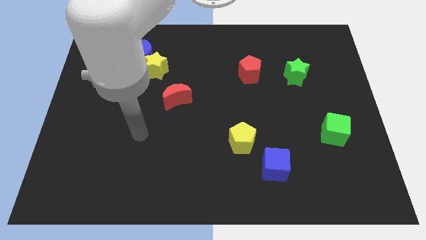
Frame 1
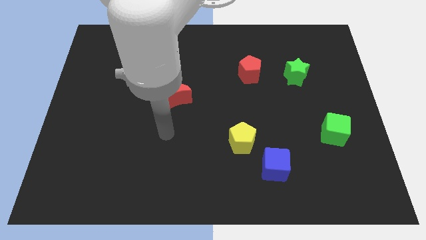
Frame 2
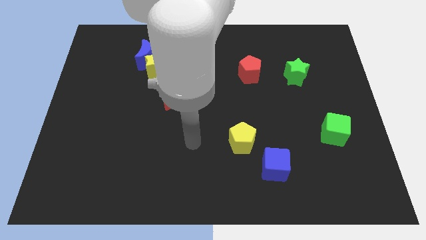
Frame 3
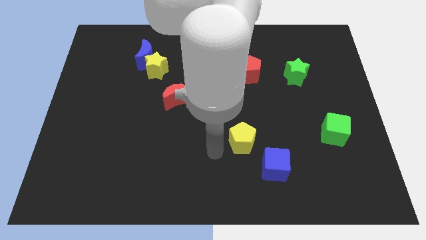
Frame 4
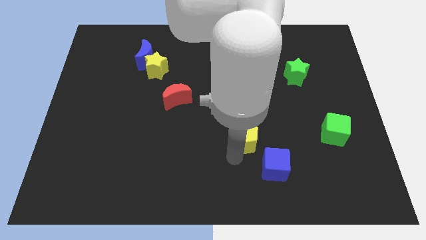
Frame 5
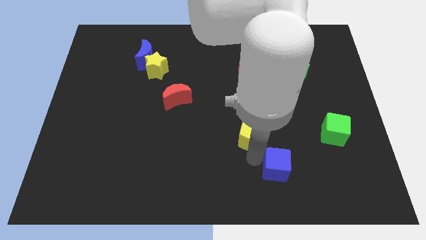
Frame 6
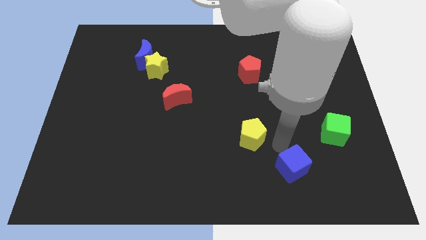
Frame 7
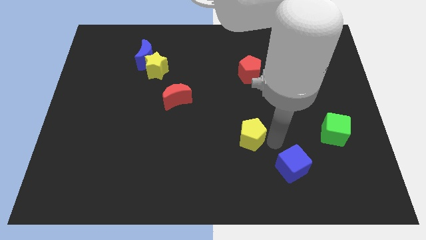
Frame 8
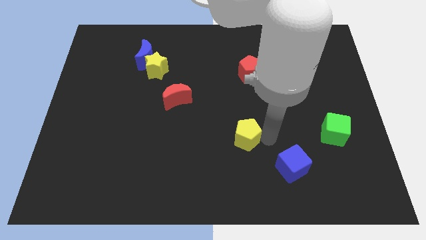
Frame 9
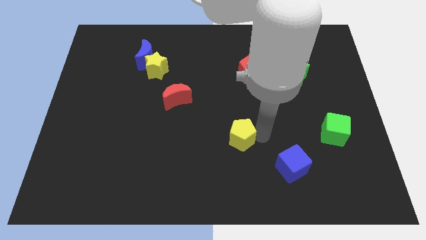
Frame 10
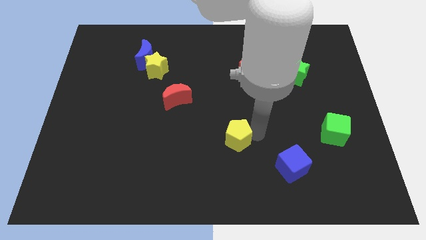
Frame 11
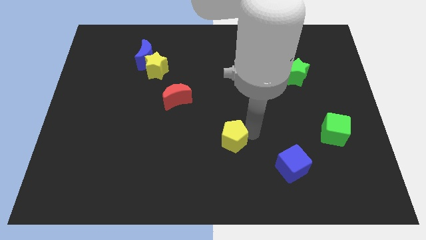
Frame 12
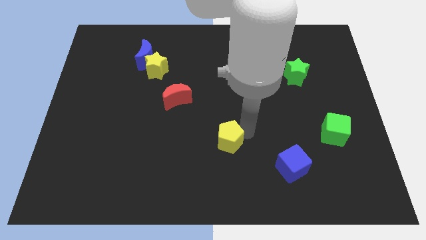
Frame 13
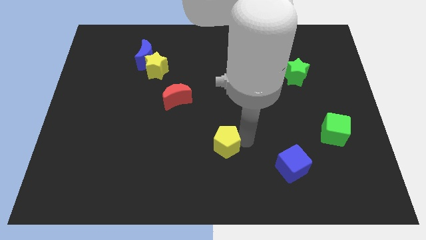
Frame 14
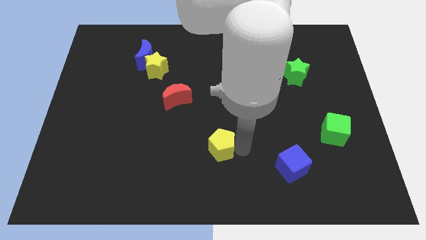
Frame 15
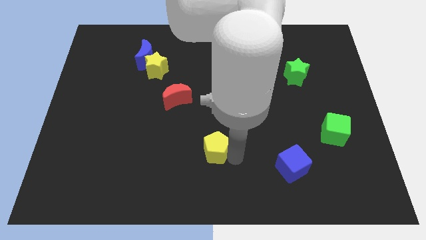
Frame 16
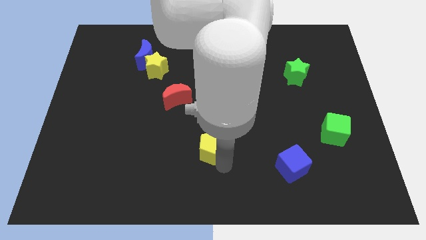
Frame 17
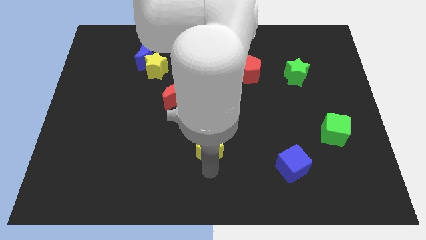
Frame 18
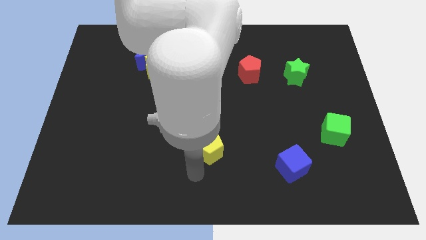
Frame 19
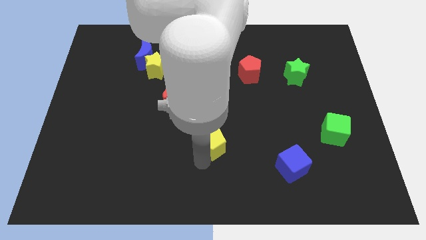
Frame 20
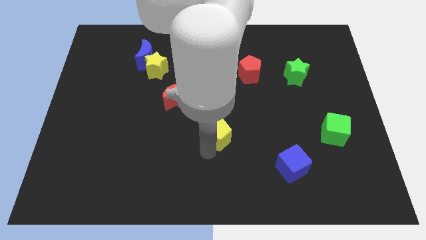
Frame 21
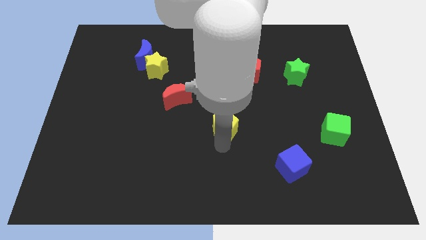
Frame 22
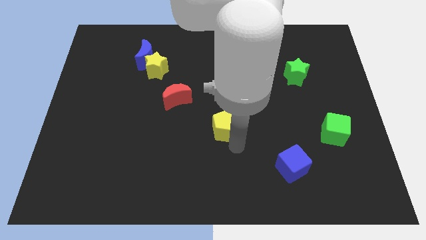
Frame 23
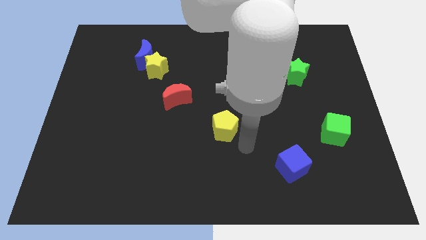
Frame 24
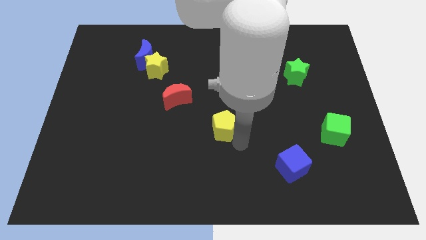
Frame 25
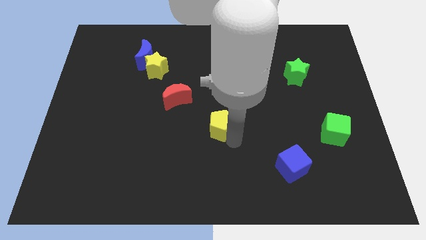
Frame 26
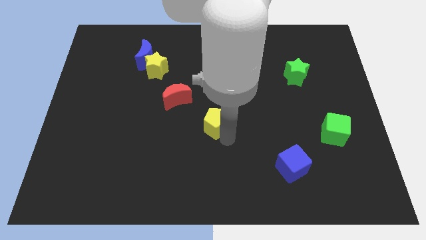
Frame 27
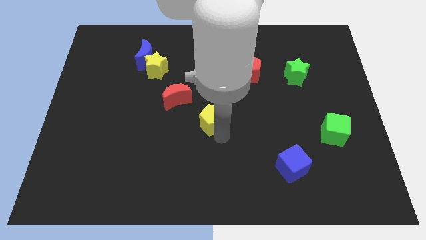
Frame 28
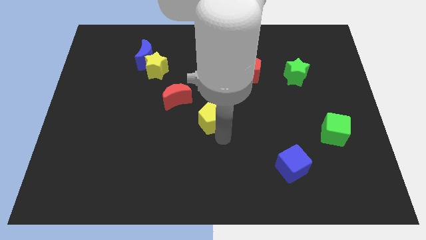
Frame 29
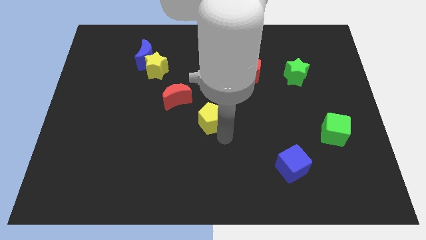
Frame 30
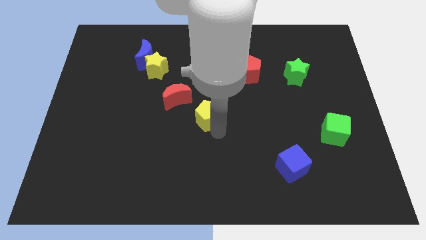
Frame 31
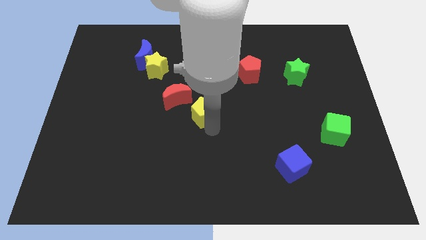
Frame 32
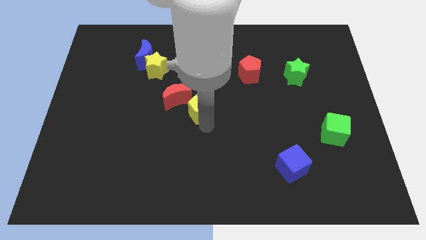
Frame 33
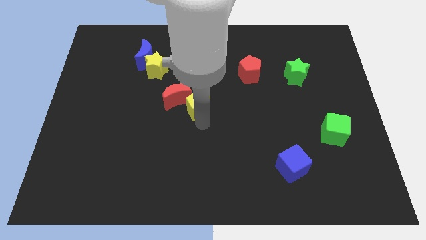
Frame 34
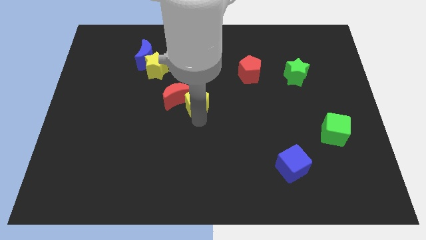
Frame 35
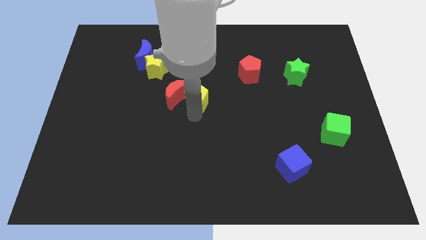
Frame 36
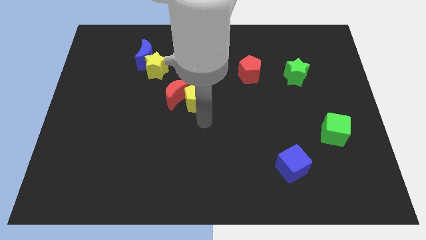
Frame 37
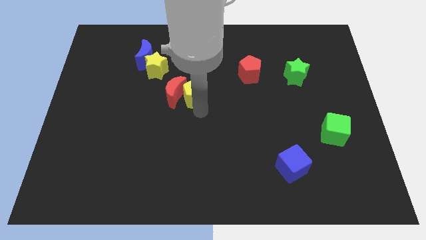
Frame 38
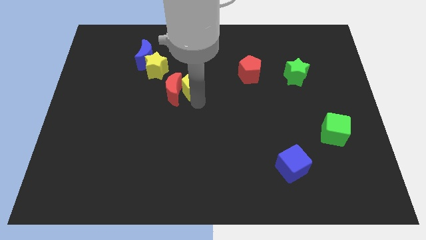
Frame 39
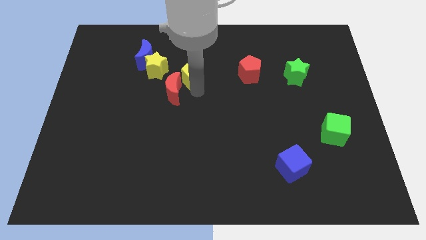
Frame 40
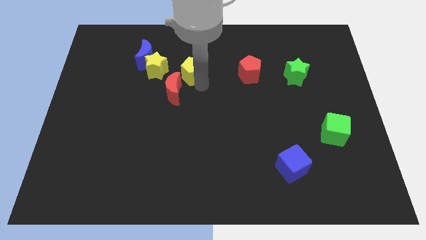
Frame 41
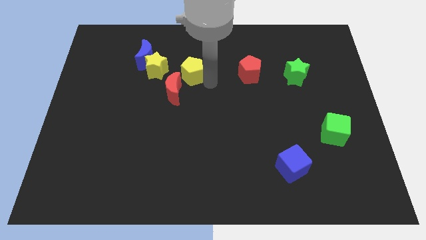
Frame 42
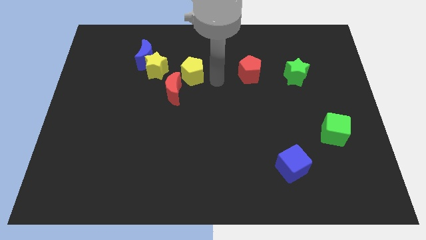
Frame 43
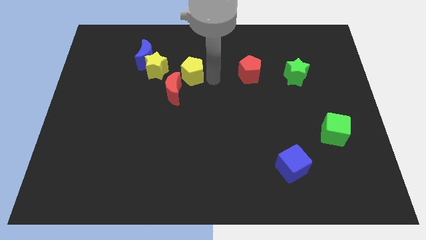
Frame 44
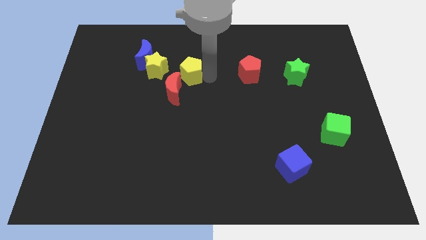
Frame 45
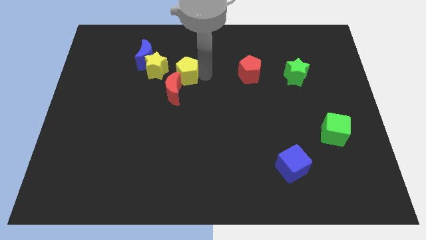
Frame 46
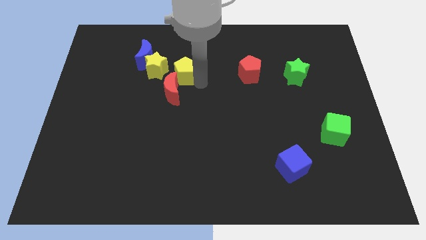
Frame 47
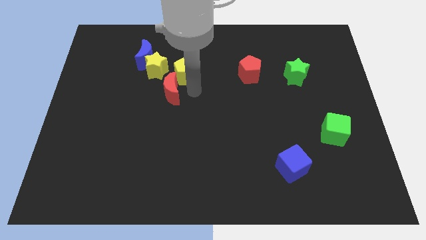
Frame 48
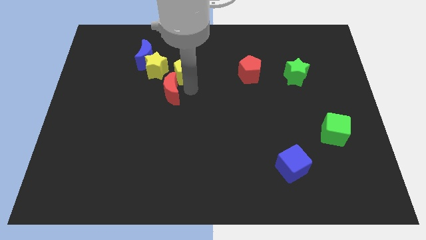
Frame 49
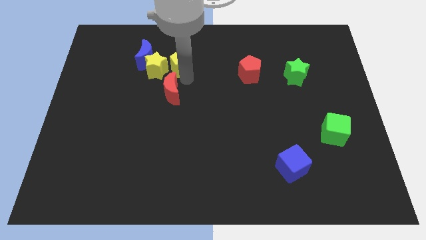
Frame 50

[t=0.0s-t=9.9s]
move the yellow pentagon diagonally up and to the right of the yellow star

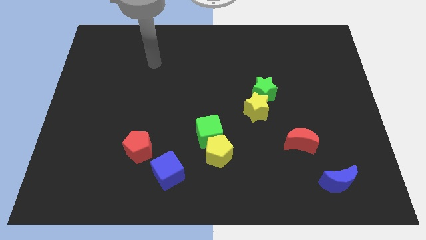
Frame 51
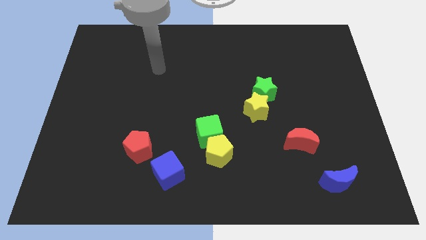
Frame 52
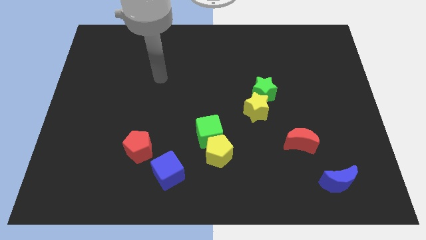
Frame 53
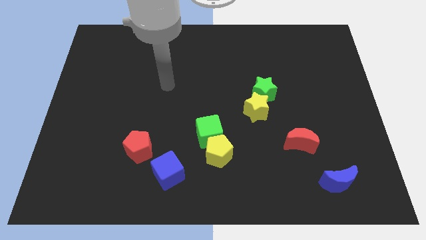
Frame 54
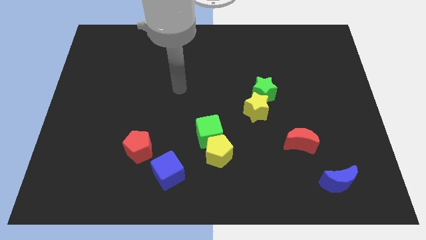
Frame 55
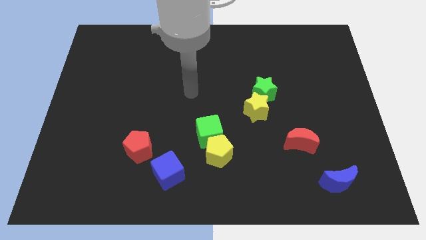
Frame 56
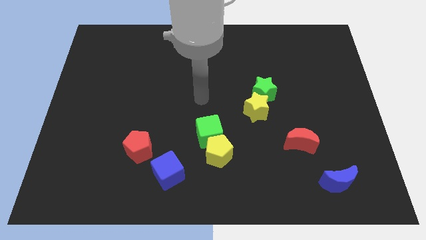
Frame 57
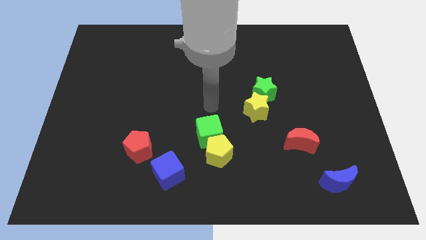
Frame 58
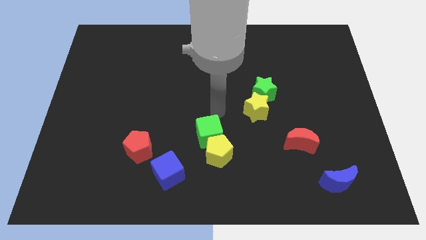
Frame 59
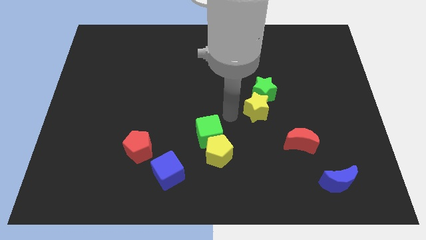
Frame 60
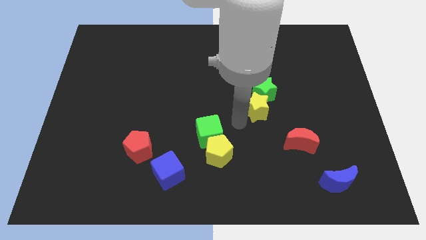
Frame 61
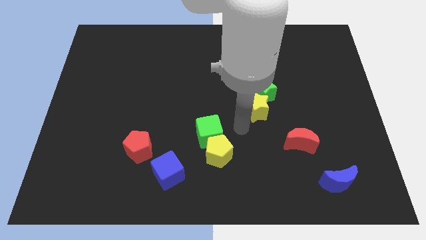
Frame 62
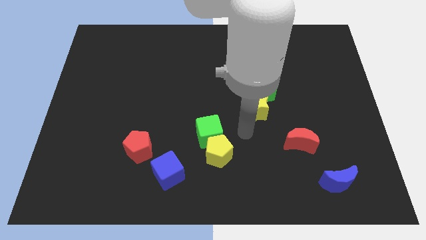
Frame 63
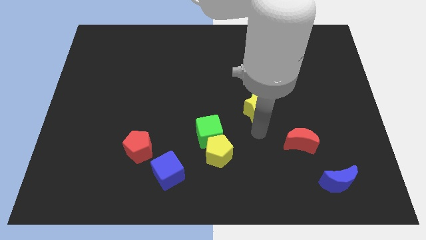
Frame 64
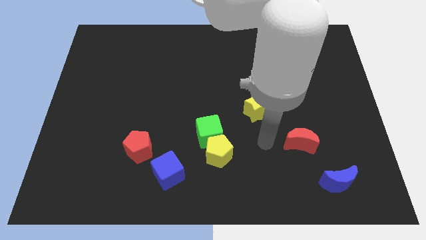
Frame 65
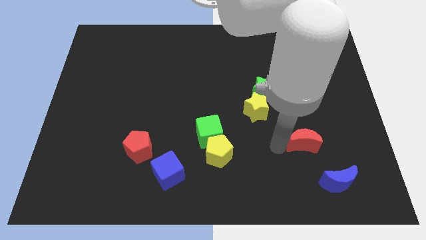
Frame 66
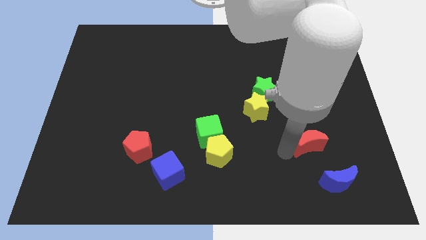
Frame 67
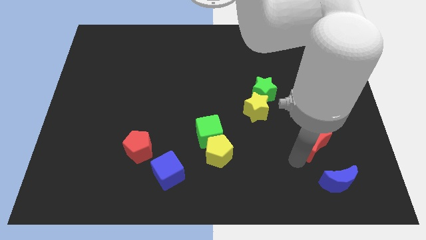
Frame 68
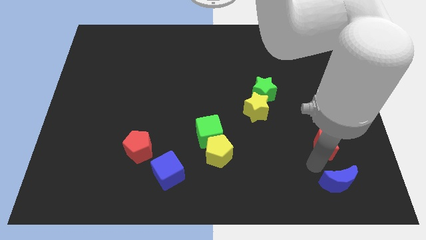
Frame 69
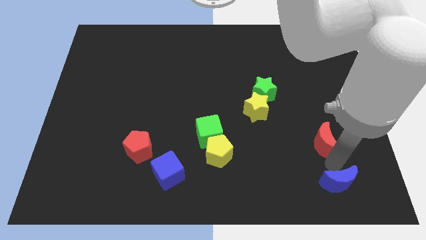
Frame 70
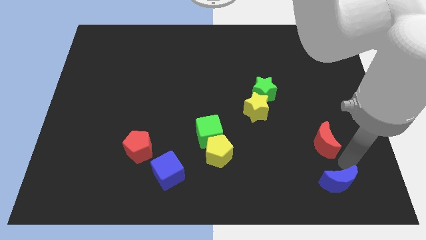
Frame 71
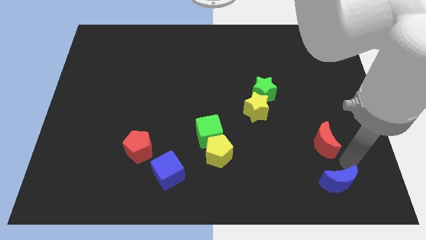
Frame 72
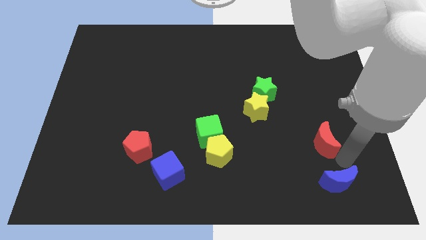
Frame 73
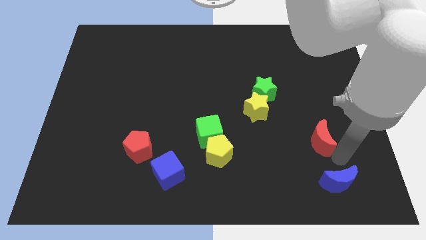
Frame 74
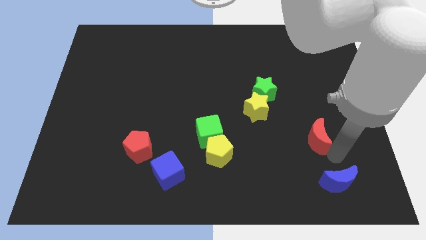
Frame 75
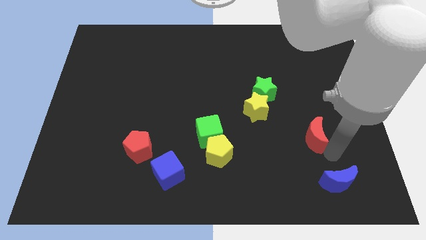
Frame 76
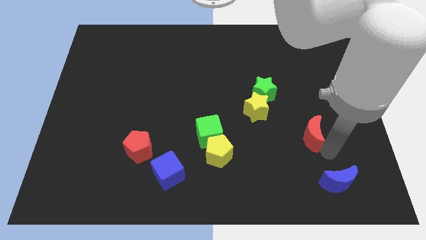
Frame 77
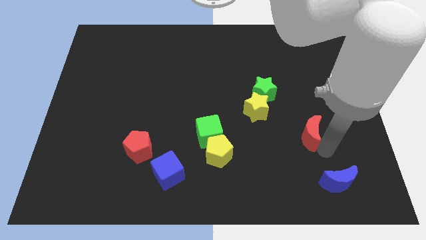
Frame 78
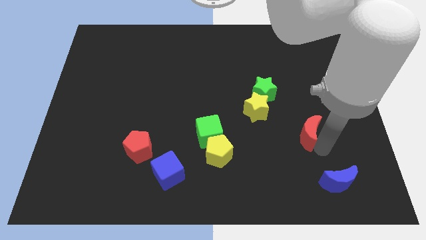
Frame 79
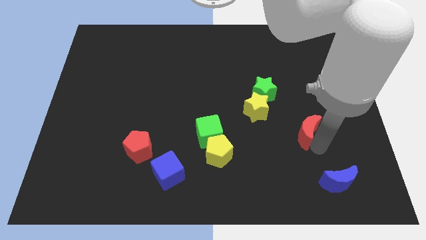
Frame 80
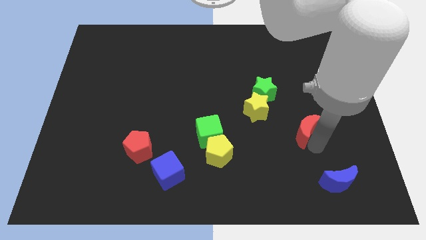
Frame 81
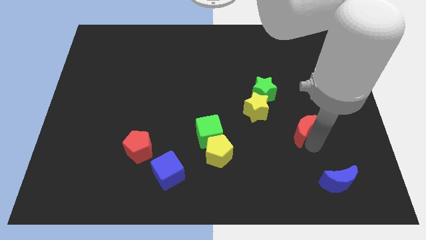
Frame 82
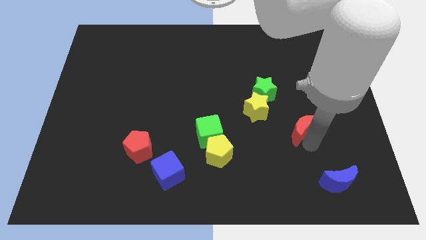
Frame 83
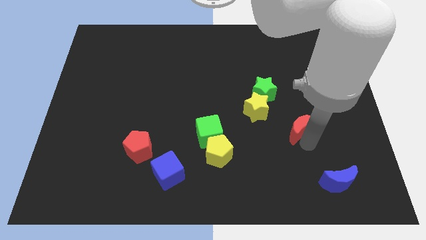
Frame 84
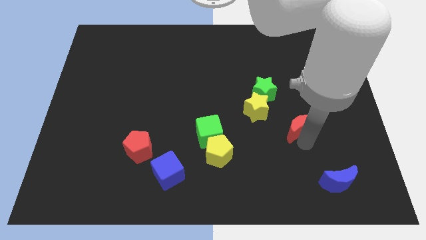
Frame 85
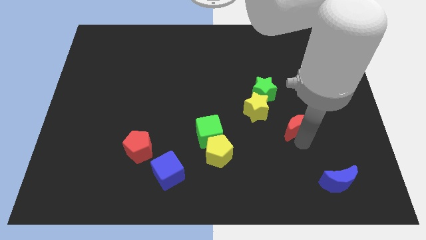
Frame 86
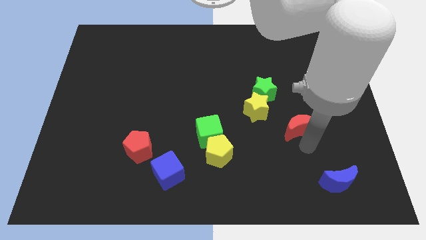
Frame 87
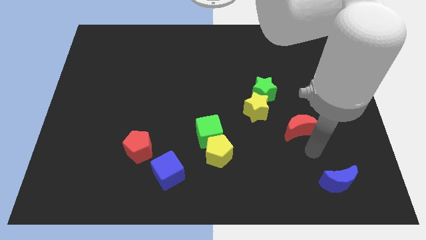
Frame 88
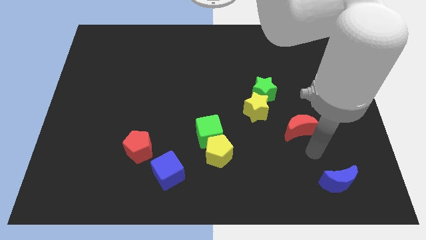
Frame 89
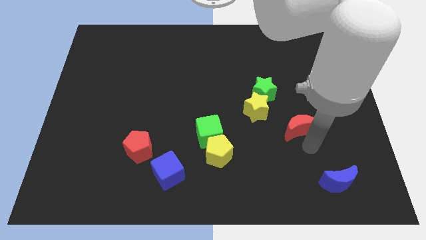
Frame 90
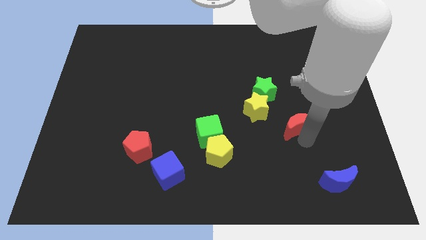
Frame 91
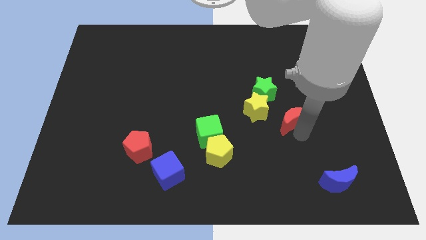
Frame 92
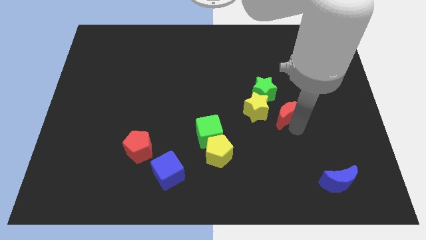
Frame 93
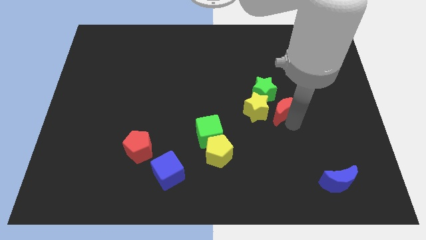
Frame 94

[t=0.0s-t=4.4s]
push the red moon diagonally up and to the right of the yellow star
